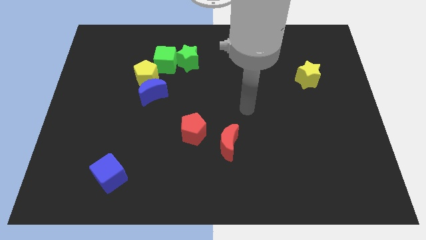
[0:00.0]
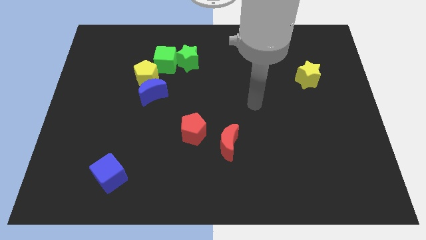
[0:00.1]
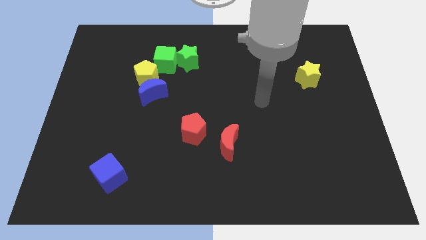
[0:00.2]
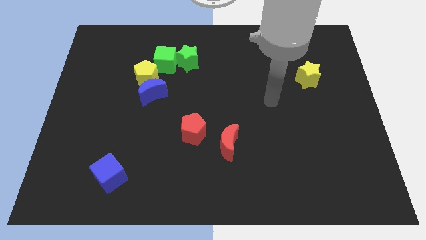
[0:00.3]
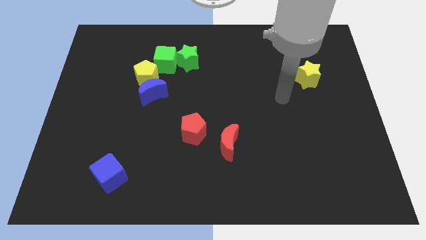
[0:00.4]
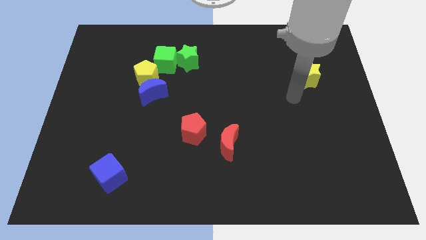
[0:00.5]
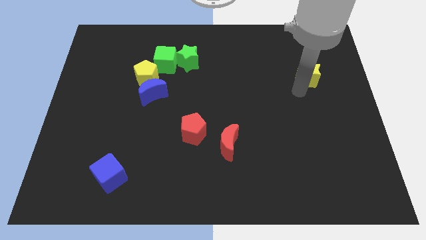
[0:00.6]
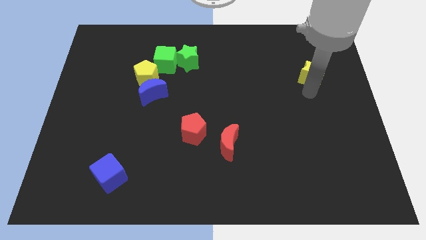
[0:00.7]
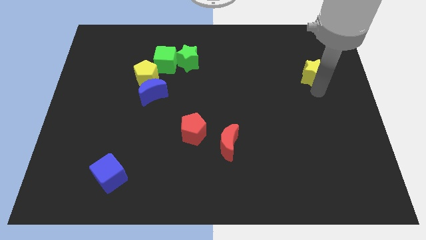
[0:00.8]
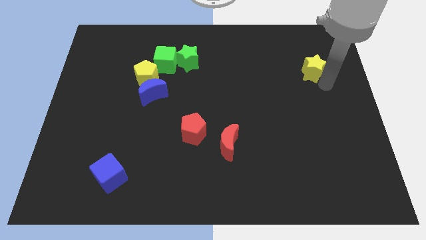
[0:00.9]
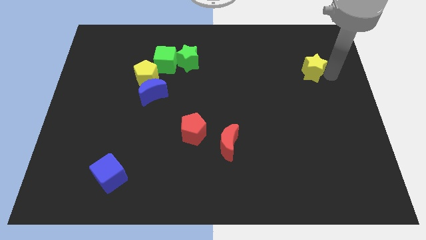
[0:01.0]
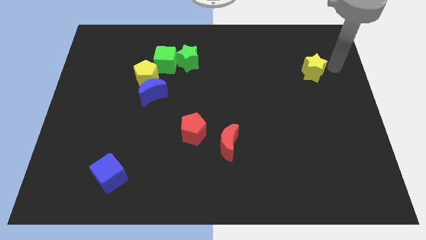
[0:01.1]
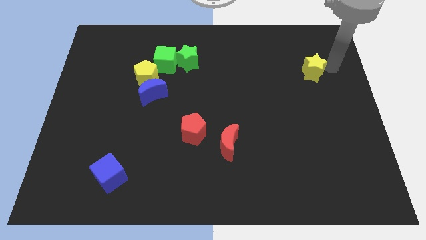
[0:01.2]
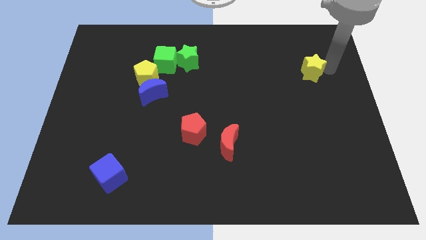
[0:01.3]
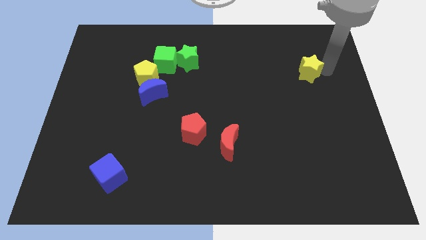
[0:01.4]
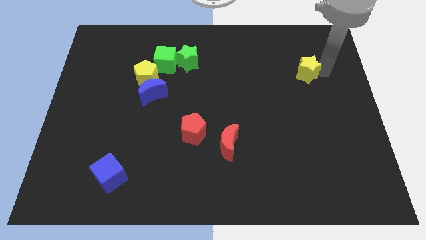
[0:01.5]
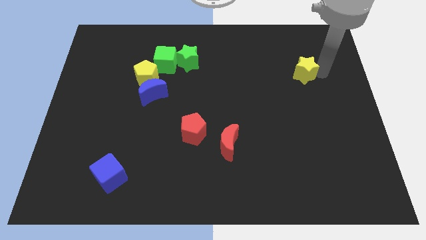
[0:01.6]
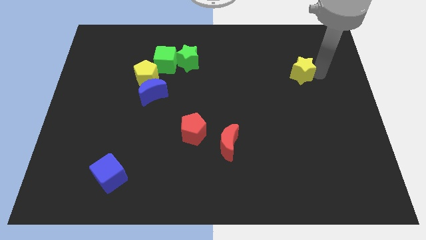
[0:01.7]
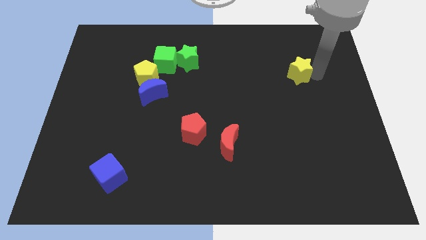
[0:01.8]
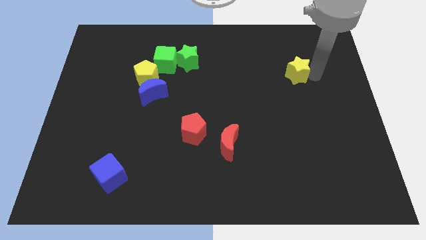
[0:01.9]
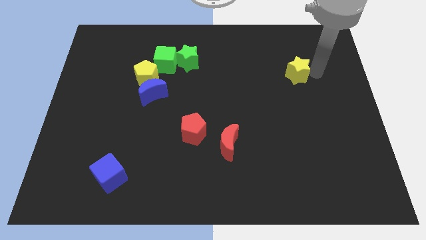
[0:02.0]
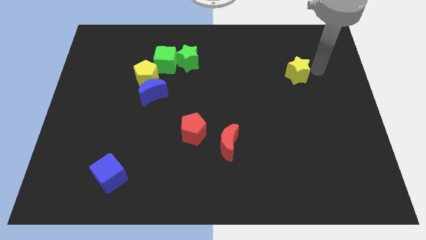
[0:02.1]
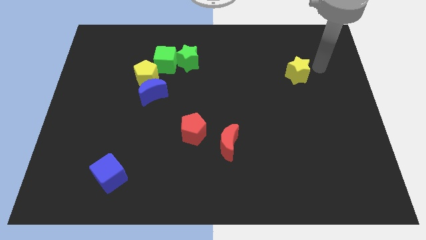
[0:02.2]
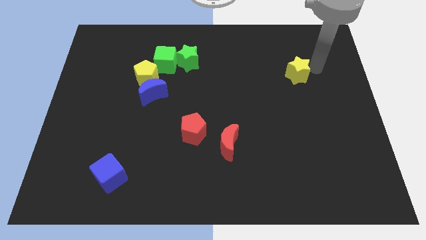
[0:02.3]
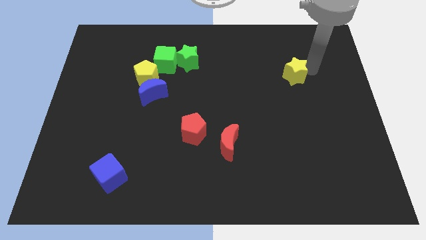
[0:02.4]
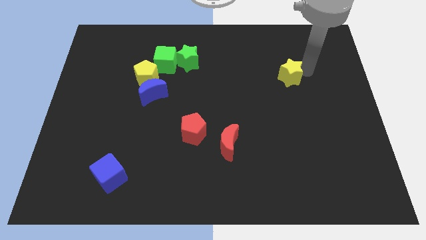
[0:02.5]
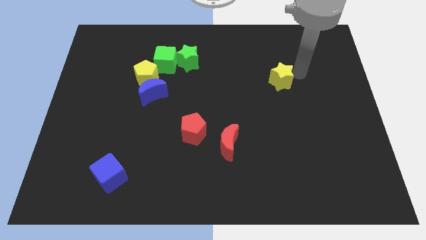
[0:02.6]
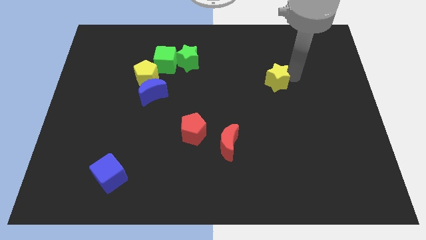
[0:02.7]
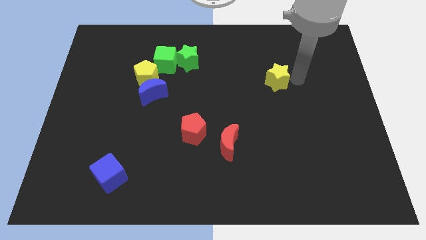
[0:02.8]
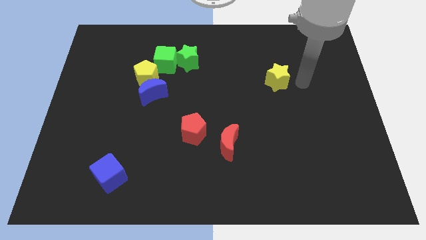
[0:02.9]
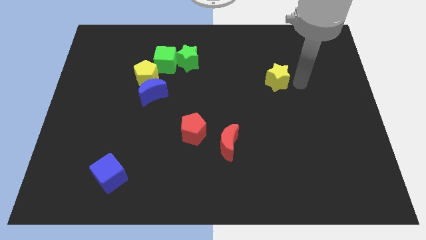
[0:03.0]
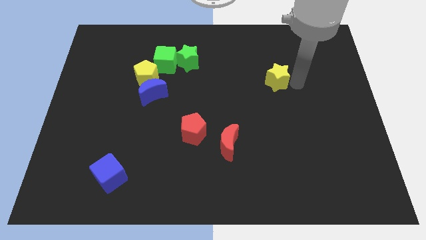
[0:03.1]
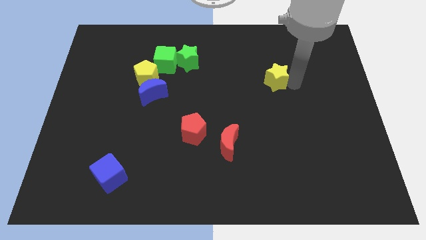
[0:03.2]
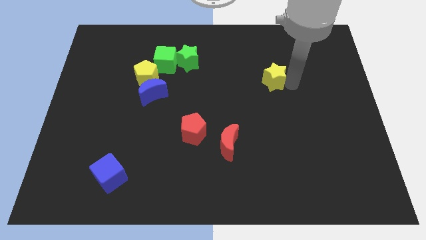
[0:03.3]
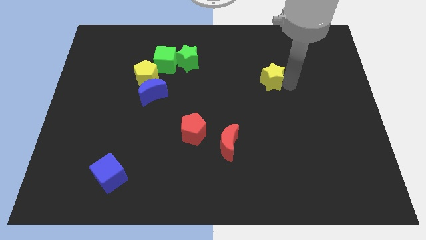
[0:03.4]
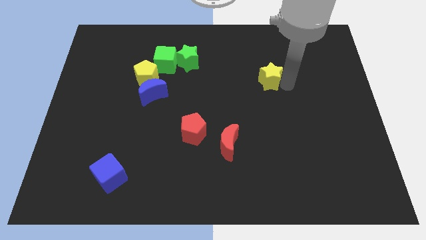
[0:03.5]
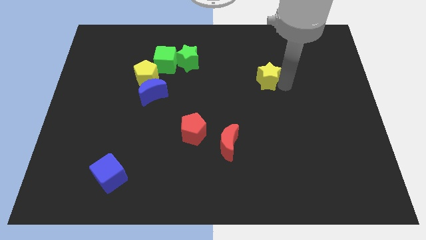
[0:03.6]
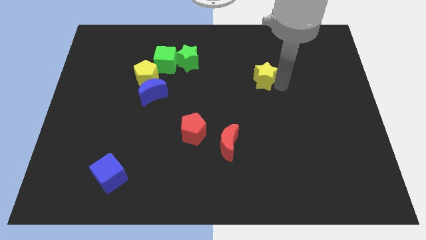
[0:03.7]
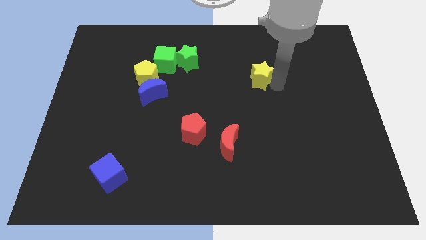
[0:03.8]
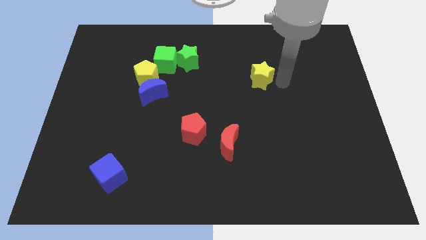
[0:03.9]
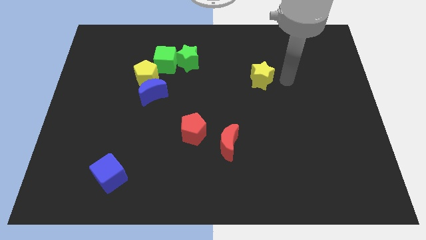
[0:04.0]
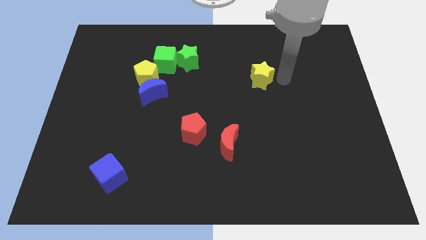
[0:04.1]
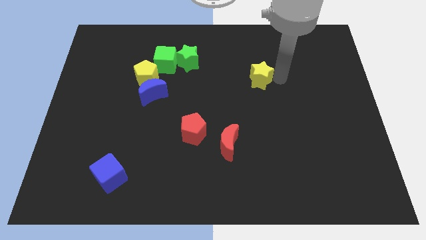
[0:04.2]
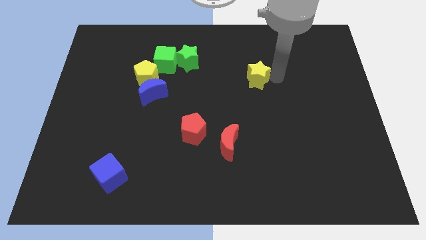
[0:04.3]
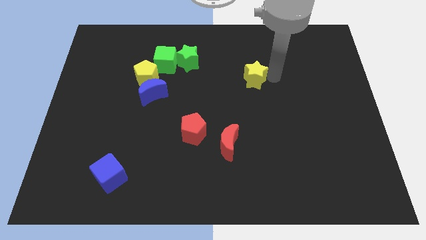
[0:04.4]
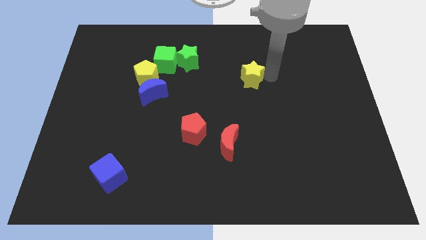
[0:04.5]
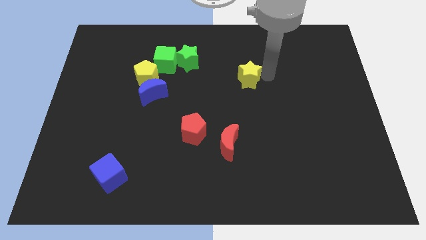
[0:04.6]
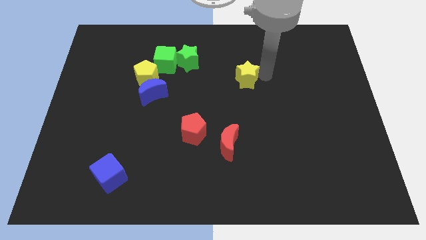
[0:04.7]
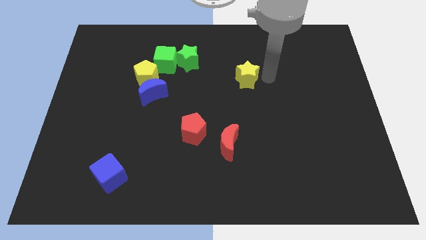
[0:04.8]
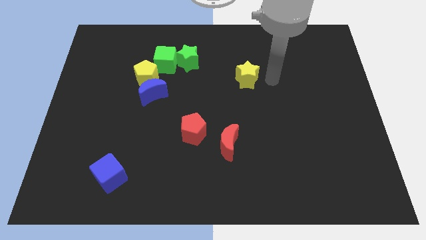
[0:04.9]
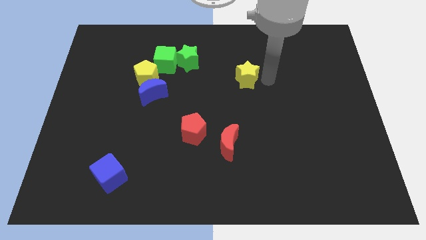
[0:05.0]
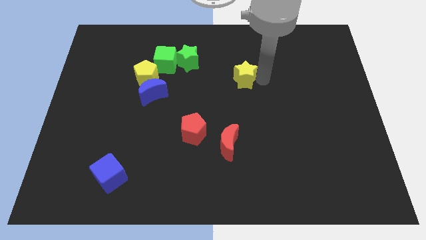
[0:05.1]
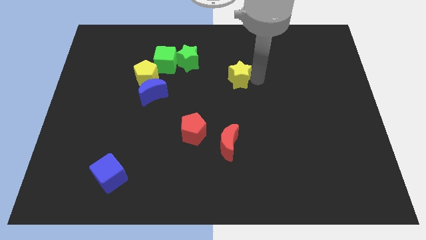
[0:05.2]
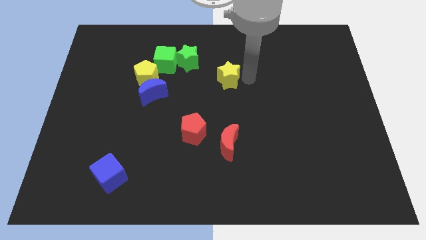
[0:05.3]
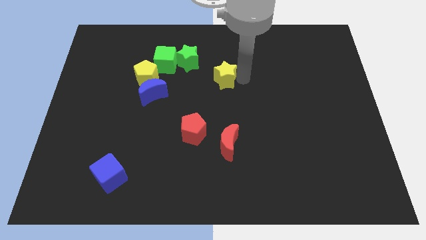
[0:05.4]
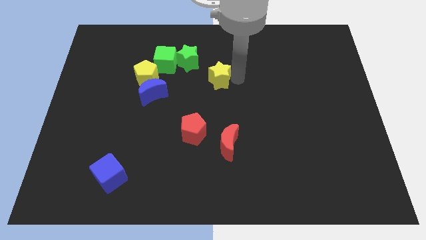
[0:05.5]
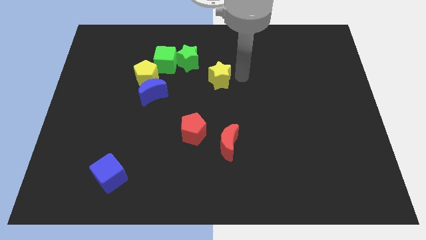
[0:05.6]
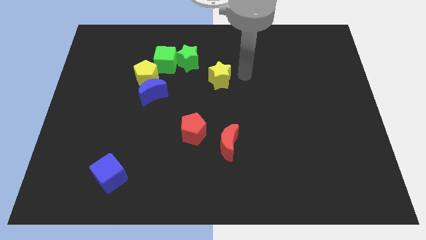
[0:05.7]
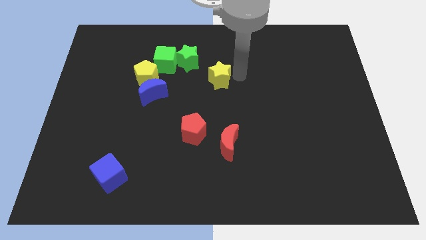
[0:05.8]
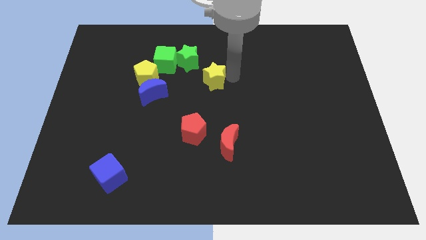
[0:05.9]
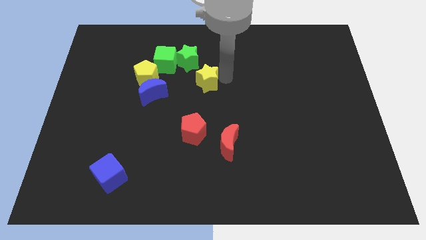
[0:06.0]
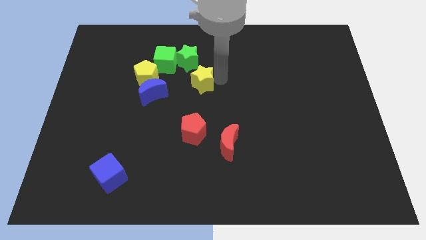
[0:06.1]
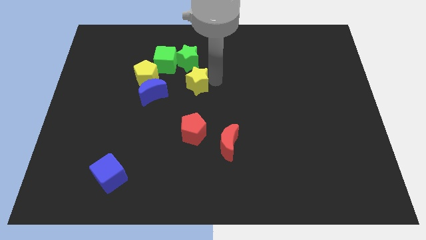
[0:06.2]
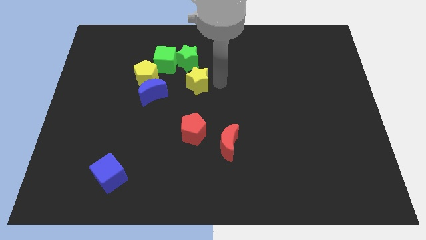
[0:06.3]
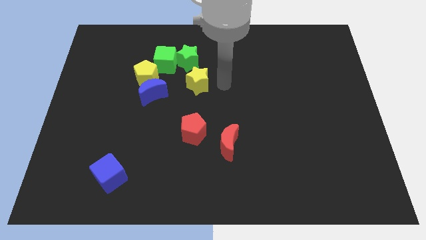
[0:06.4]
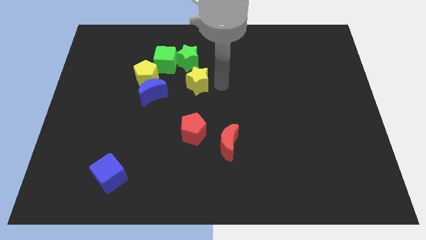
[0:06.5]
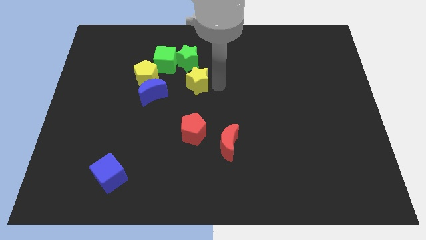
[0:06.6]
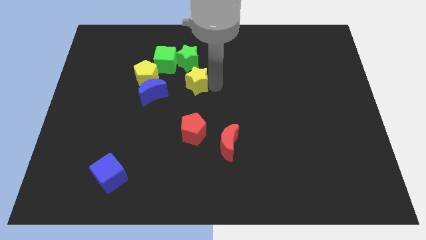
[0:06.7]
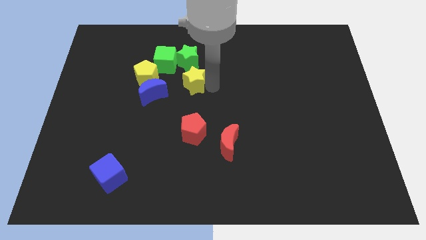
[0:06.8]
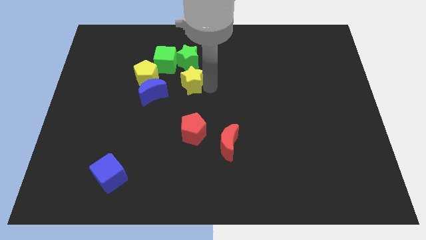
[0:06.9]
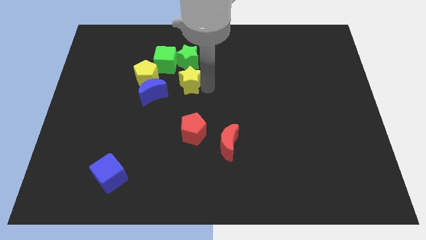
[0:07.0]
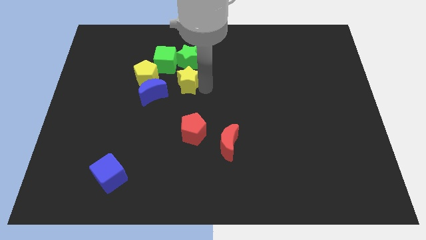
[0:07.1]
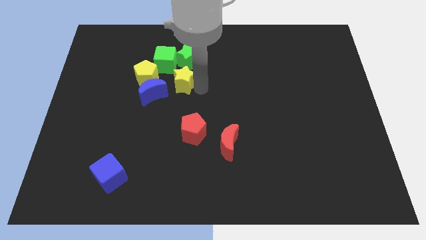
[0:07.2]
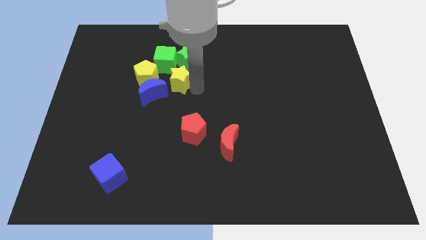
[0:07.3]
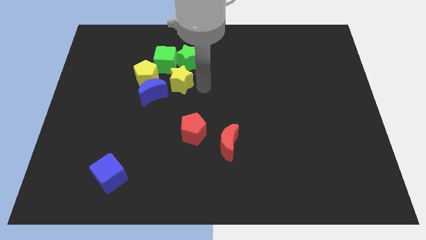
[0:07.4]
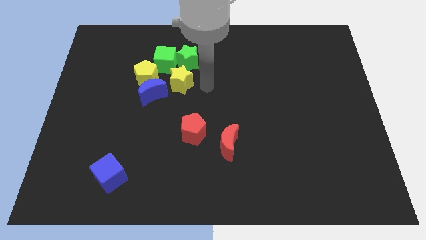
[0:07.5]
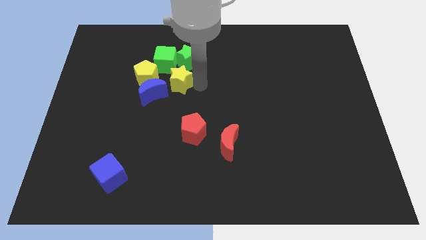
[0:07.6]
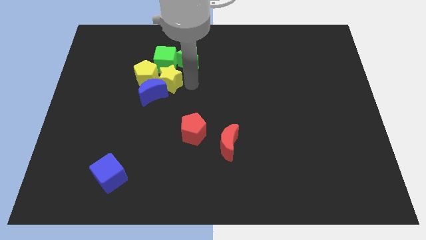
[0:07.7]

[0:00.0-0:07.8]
push the yellow star towards the yellow pentagon
